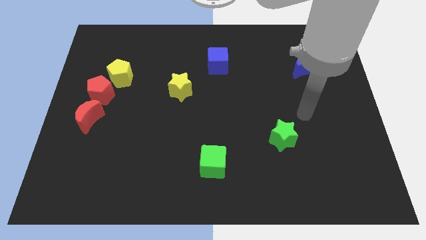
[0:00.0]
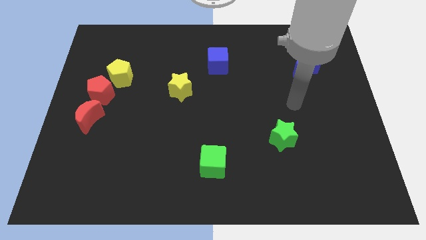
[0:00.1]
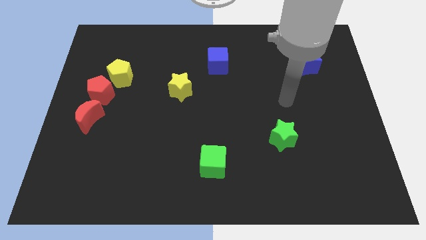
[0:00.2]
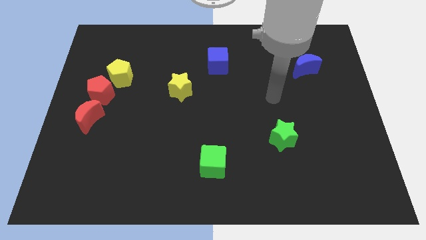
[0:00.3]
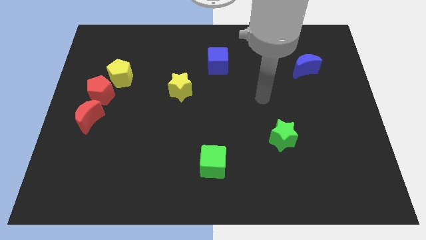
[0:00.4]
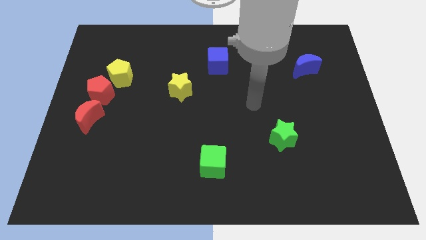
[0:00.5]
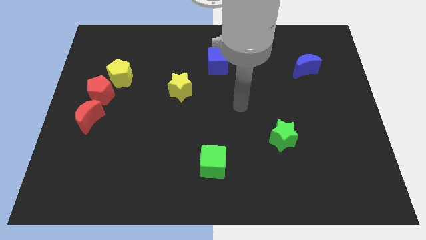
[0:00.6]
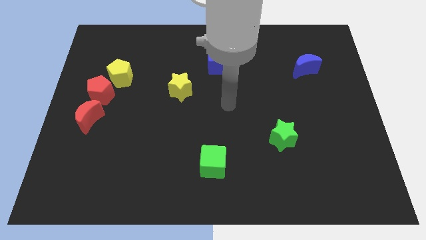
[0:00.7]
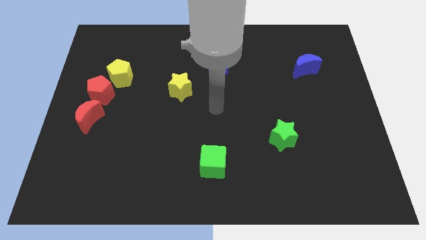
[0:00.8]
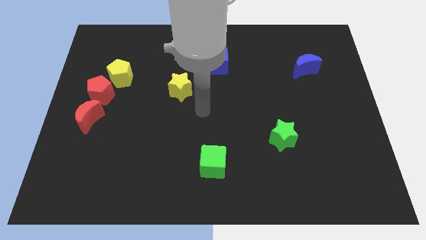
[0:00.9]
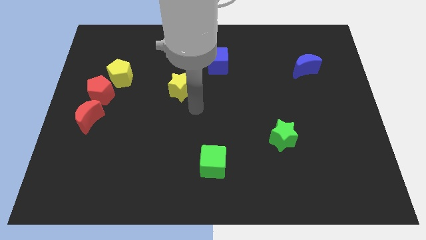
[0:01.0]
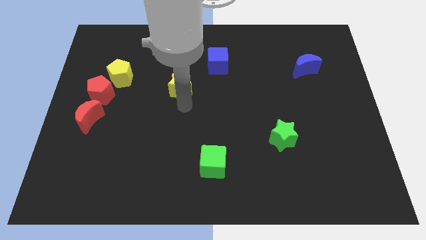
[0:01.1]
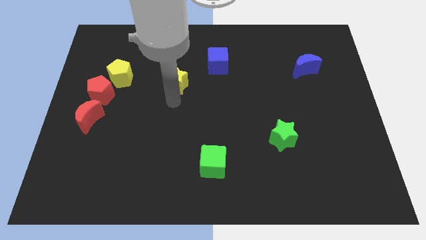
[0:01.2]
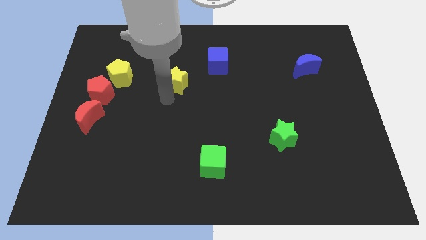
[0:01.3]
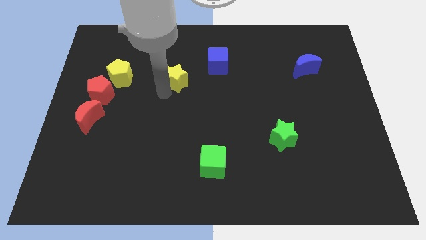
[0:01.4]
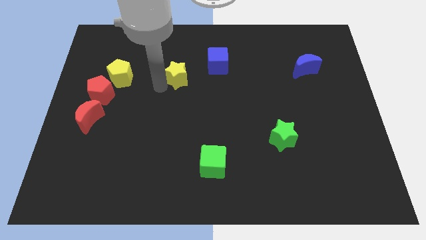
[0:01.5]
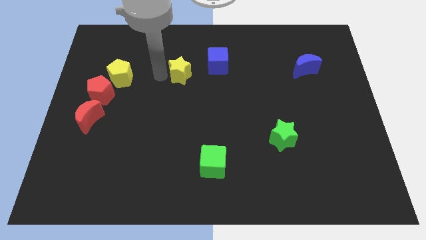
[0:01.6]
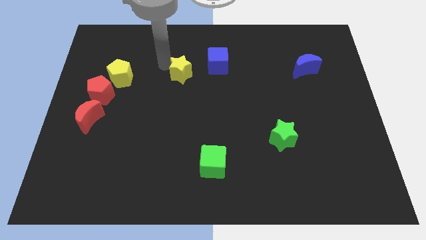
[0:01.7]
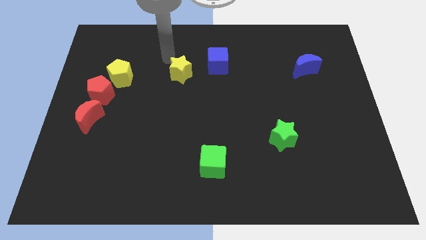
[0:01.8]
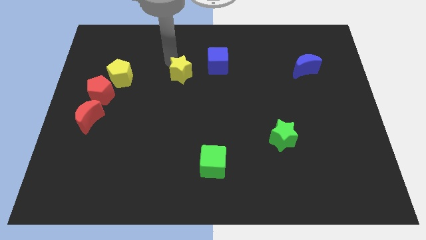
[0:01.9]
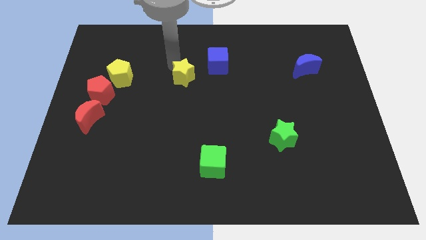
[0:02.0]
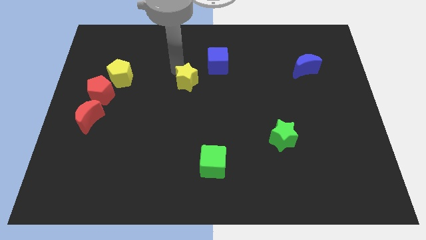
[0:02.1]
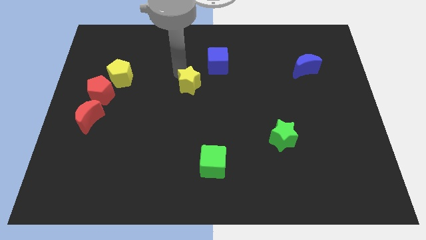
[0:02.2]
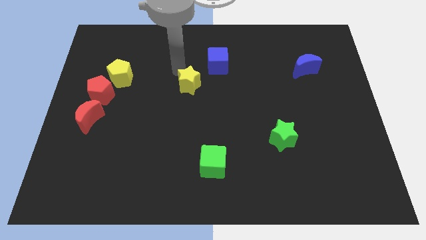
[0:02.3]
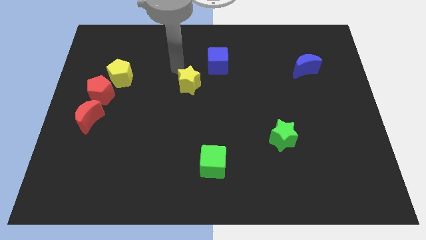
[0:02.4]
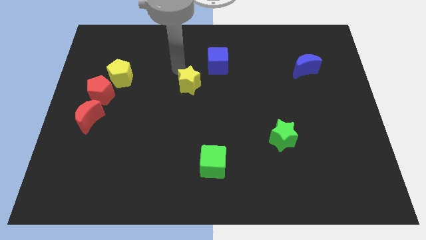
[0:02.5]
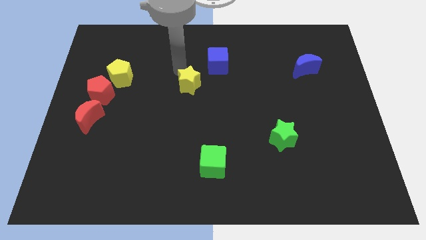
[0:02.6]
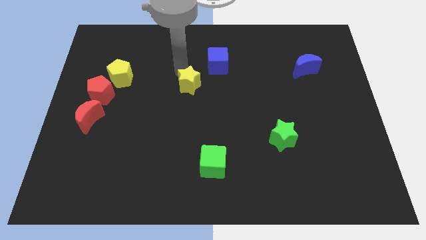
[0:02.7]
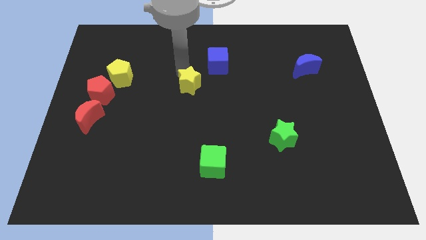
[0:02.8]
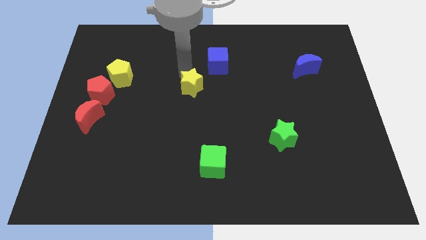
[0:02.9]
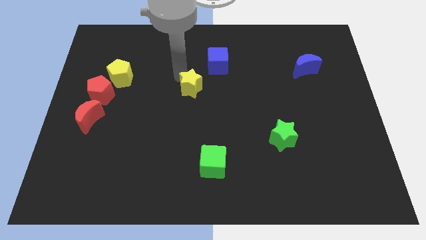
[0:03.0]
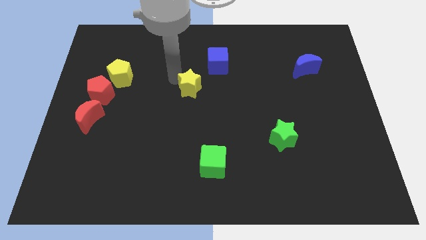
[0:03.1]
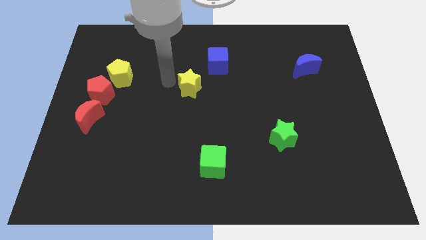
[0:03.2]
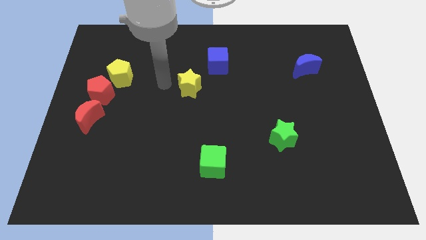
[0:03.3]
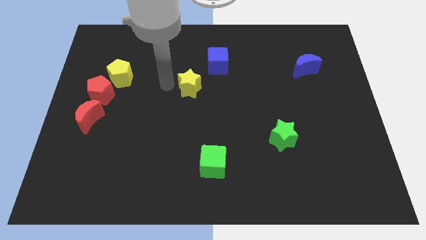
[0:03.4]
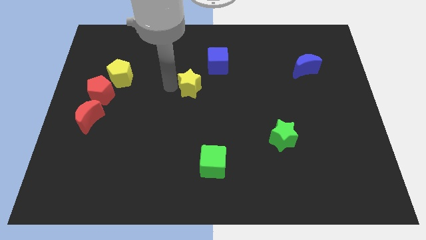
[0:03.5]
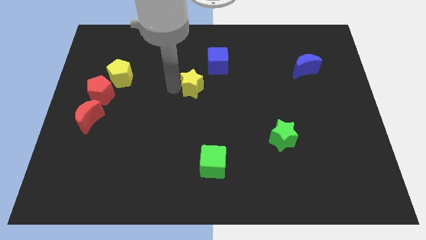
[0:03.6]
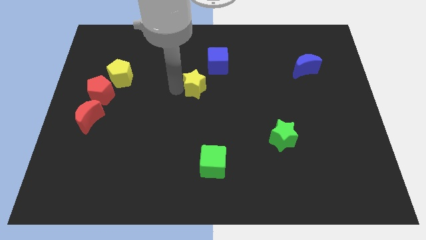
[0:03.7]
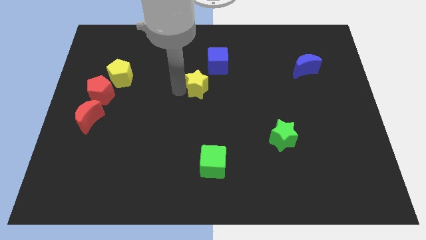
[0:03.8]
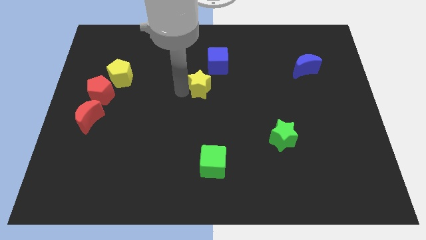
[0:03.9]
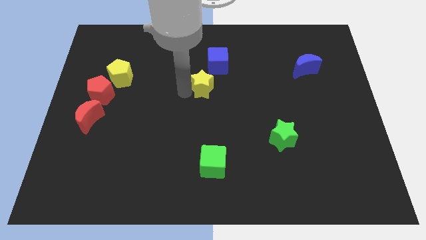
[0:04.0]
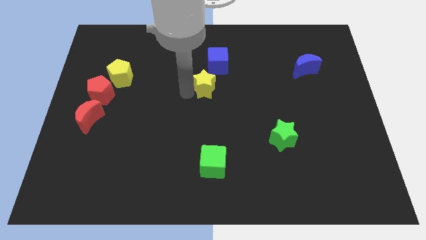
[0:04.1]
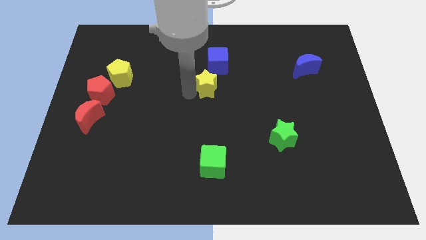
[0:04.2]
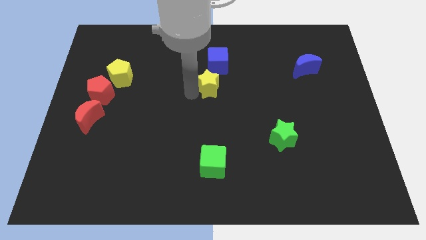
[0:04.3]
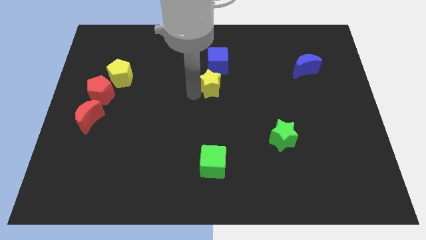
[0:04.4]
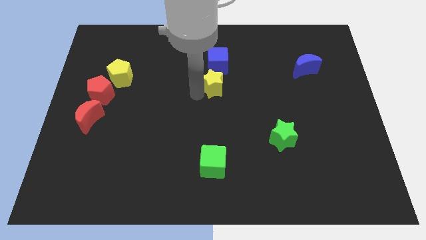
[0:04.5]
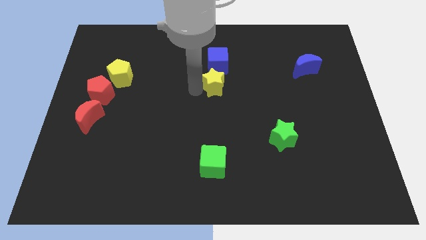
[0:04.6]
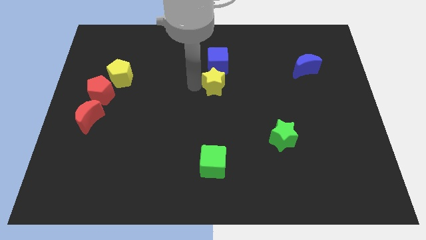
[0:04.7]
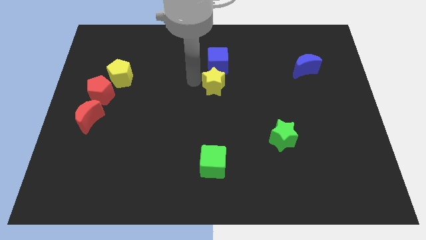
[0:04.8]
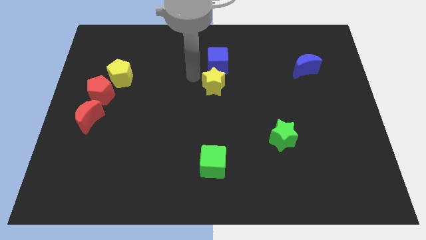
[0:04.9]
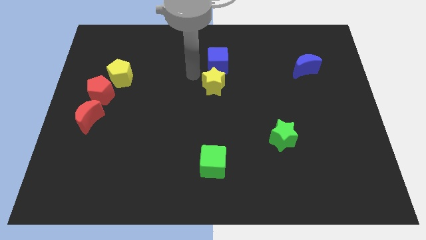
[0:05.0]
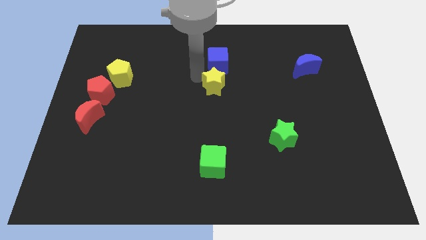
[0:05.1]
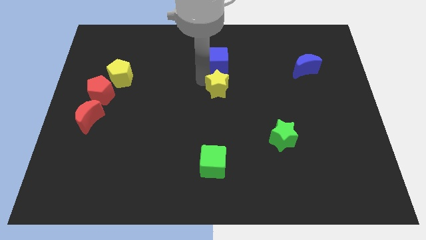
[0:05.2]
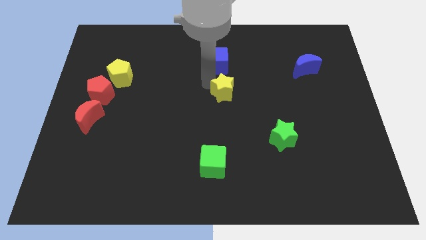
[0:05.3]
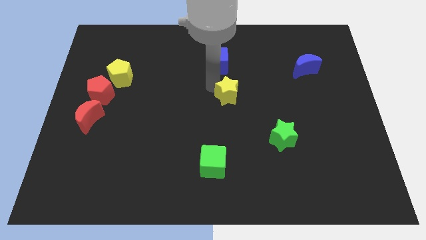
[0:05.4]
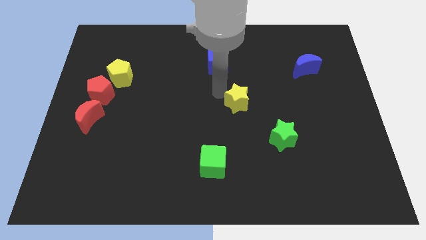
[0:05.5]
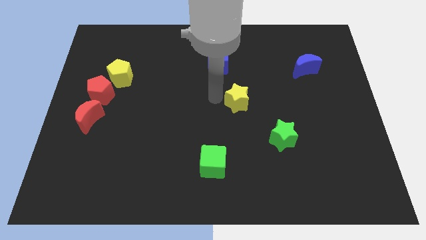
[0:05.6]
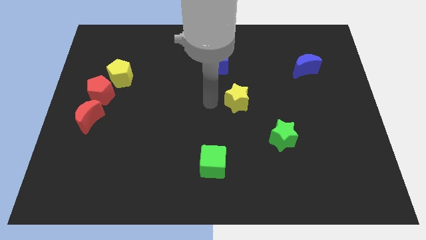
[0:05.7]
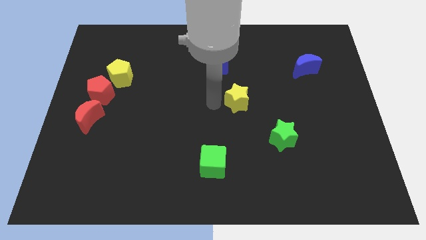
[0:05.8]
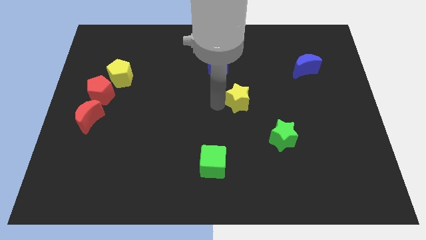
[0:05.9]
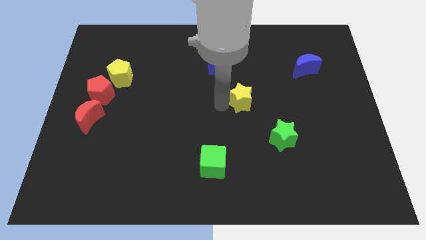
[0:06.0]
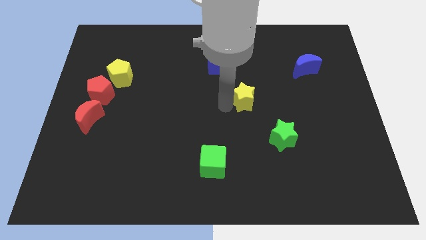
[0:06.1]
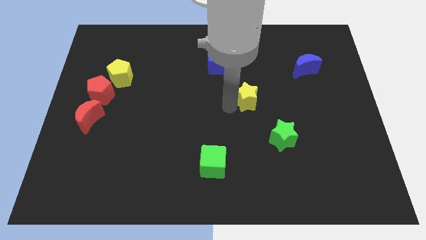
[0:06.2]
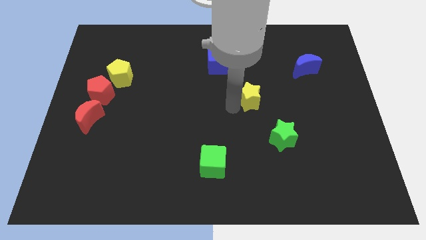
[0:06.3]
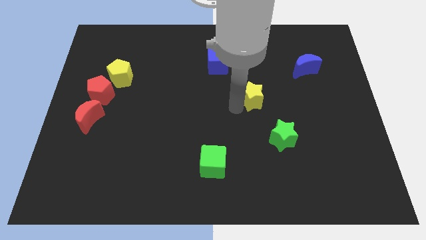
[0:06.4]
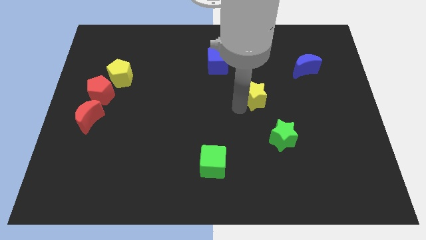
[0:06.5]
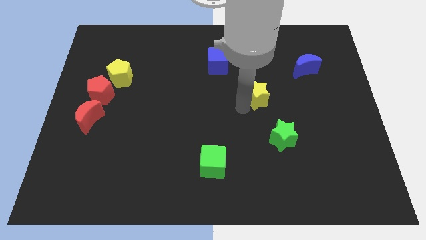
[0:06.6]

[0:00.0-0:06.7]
push the yellow star above the green star

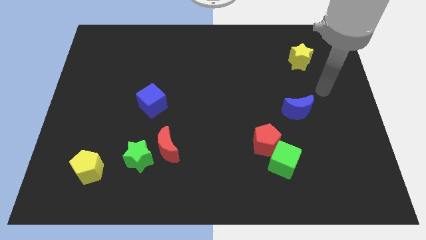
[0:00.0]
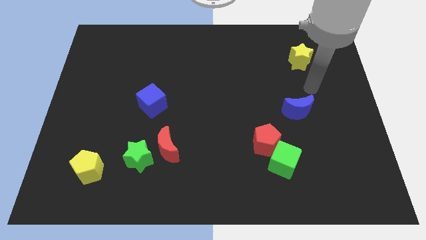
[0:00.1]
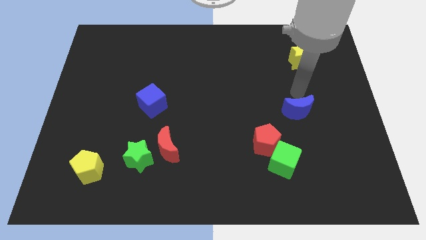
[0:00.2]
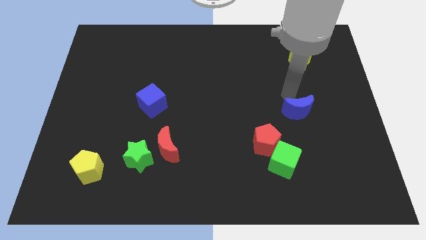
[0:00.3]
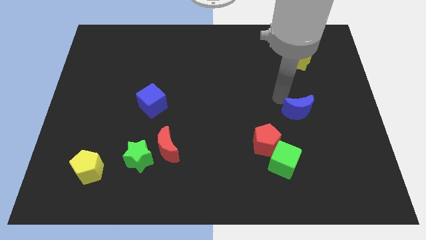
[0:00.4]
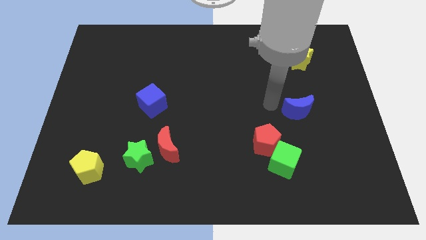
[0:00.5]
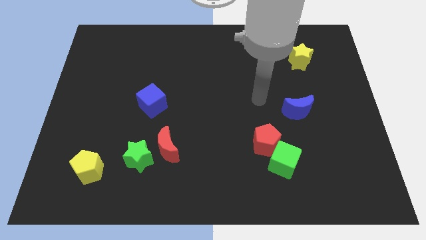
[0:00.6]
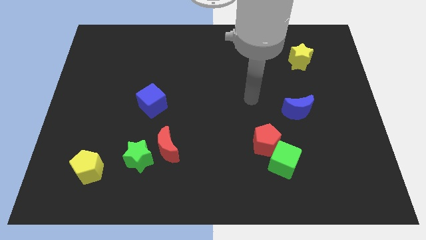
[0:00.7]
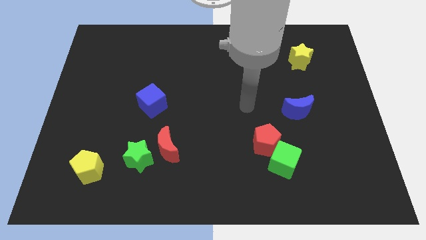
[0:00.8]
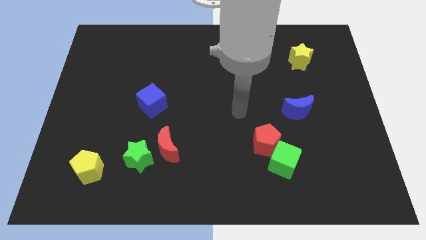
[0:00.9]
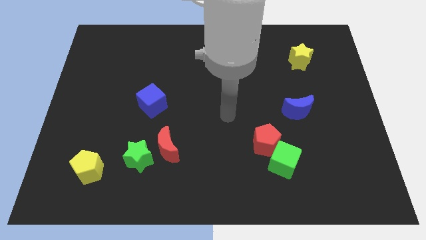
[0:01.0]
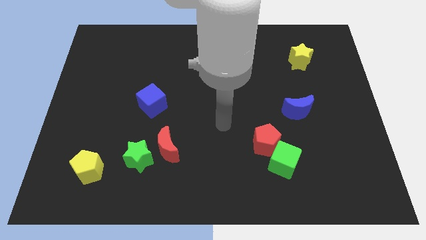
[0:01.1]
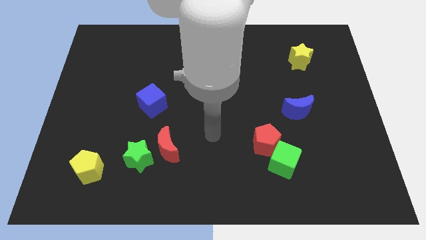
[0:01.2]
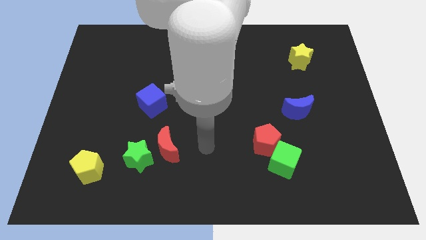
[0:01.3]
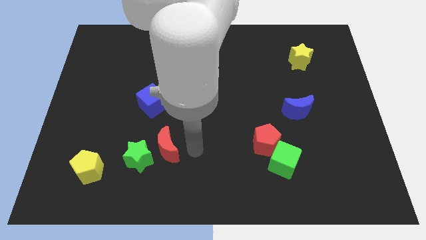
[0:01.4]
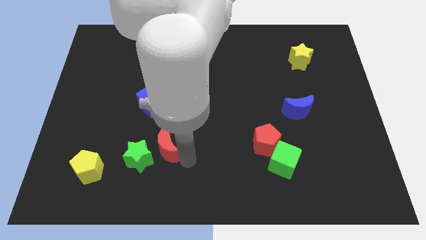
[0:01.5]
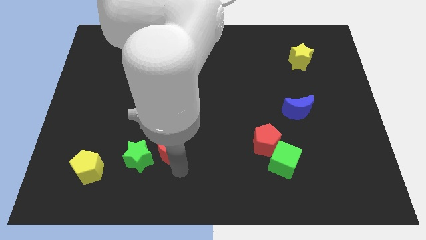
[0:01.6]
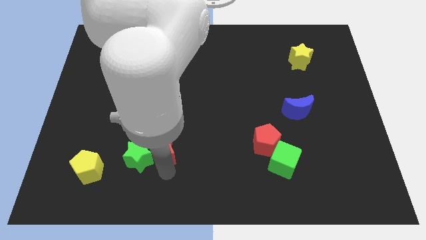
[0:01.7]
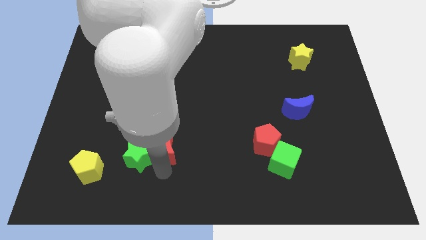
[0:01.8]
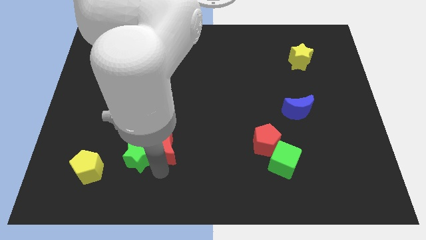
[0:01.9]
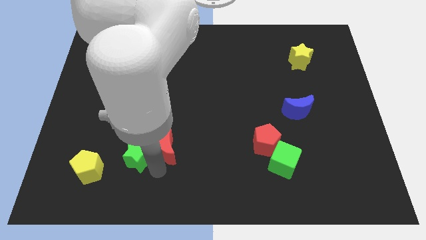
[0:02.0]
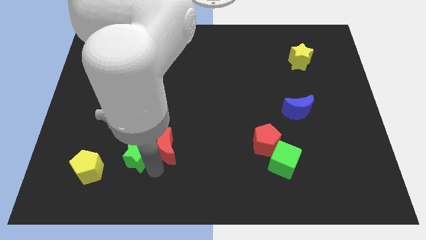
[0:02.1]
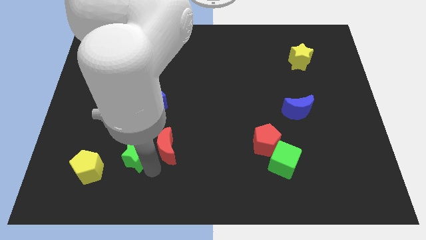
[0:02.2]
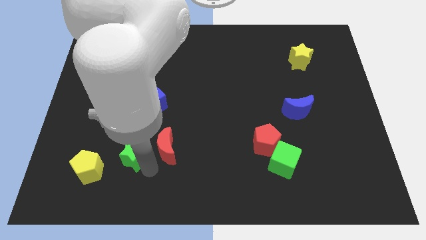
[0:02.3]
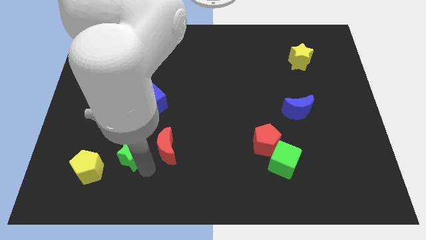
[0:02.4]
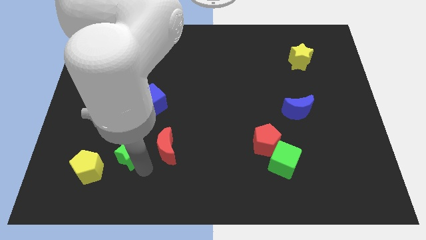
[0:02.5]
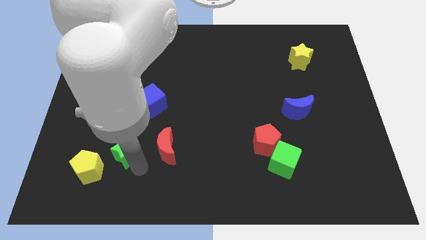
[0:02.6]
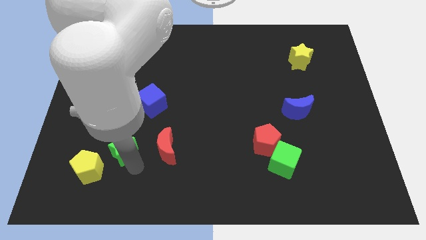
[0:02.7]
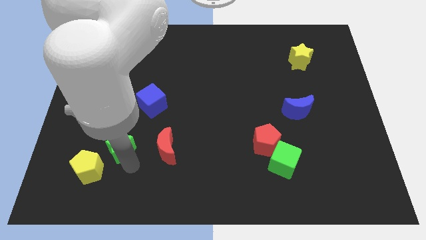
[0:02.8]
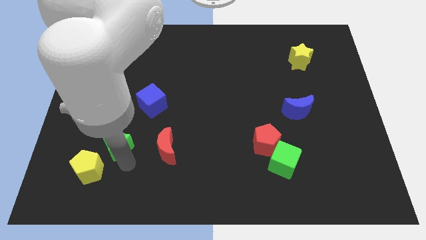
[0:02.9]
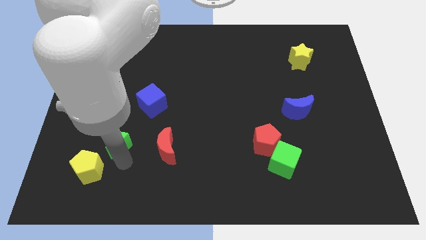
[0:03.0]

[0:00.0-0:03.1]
move the green star above the yellow pentagon
